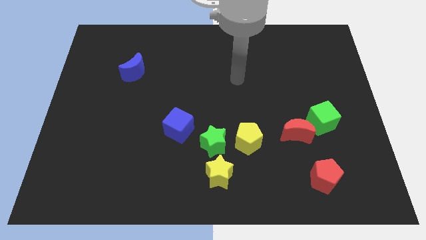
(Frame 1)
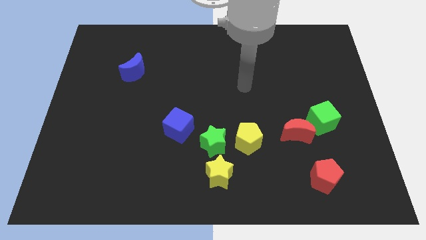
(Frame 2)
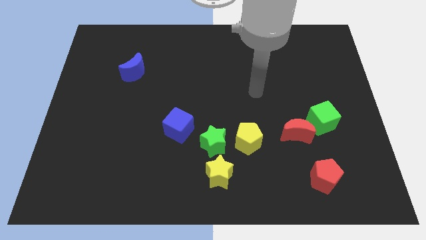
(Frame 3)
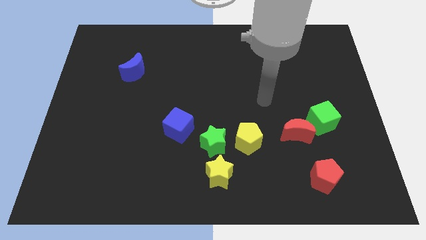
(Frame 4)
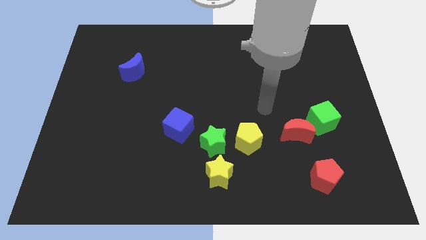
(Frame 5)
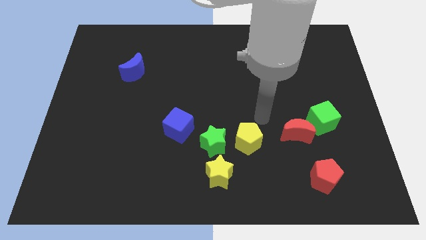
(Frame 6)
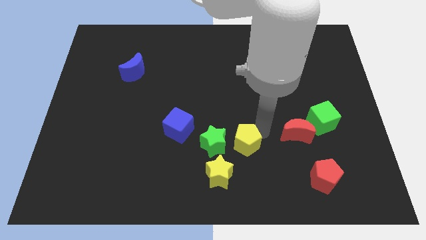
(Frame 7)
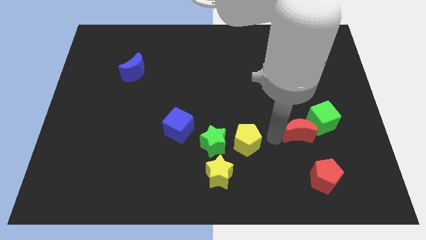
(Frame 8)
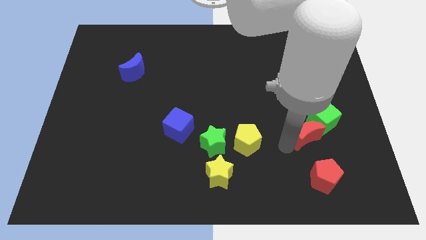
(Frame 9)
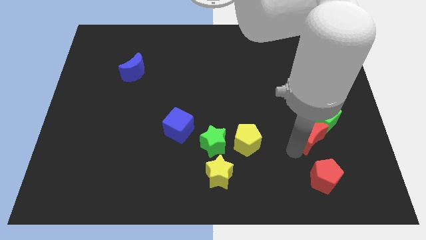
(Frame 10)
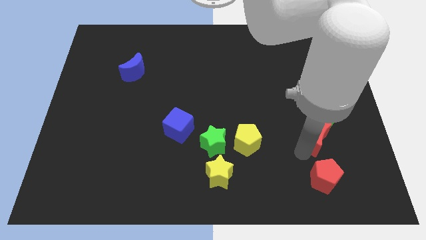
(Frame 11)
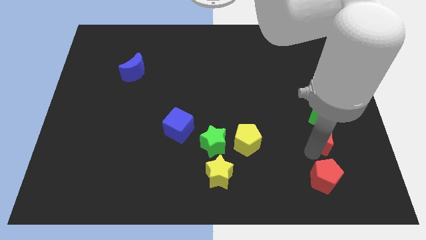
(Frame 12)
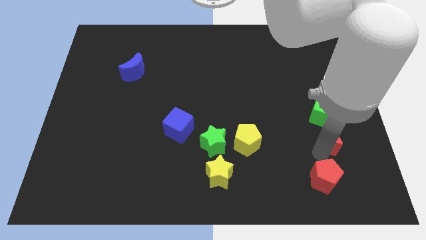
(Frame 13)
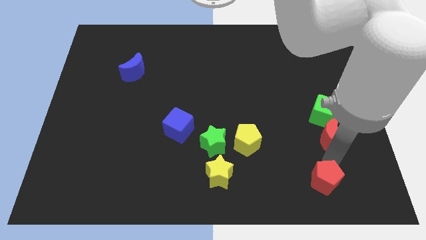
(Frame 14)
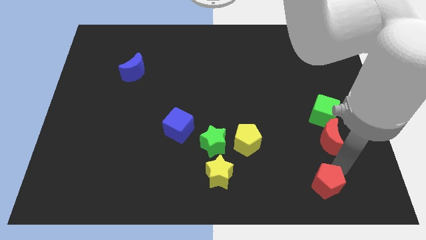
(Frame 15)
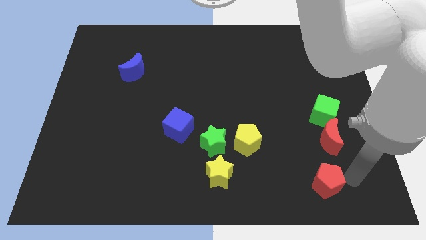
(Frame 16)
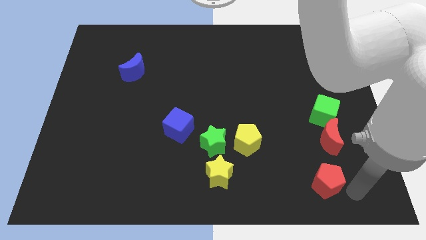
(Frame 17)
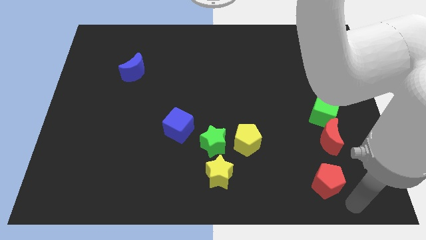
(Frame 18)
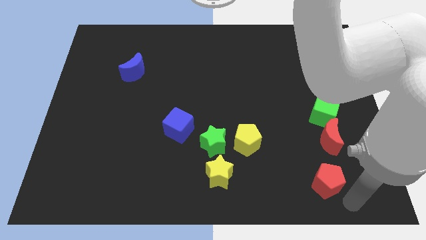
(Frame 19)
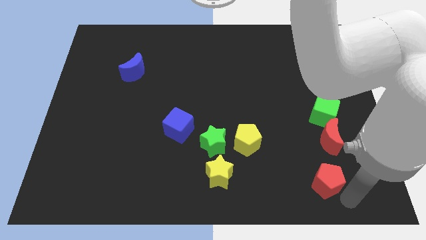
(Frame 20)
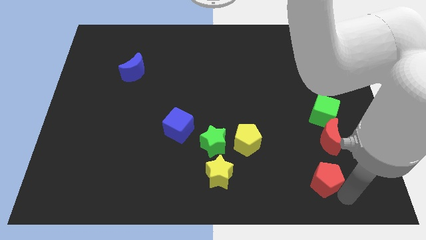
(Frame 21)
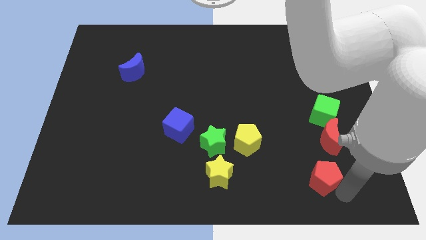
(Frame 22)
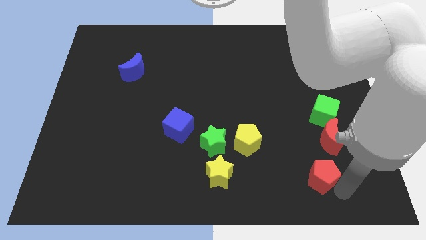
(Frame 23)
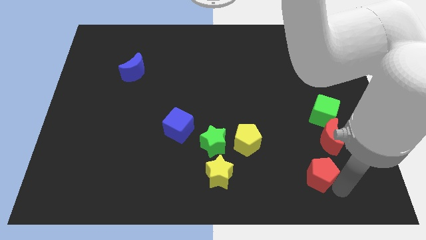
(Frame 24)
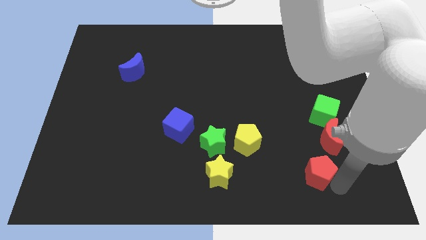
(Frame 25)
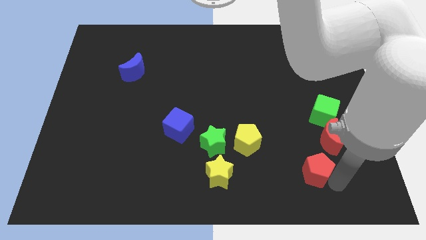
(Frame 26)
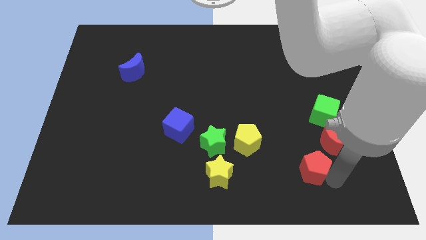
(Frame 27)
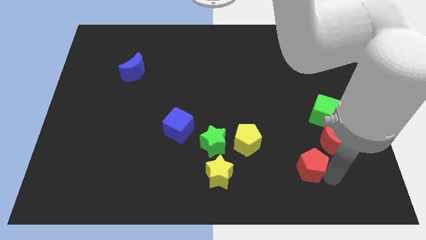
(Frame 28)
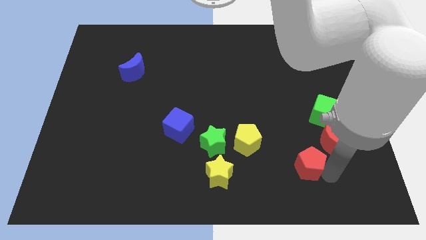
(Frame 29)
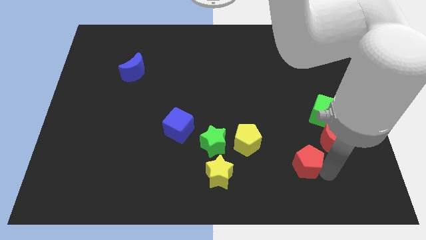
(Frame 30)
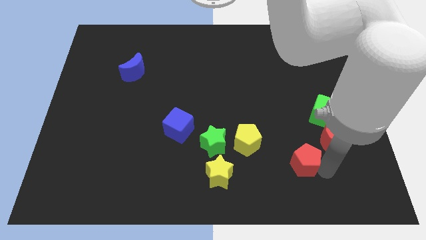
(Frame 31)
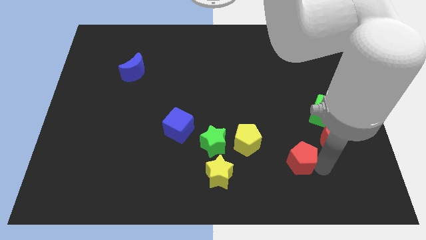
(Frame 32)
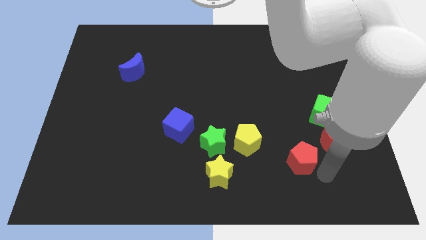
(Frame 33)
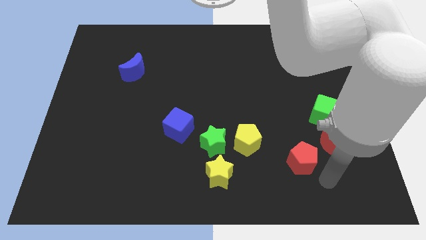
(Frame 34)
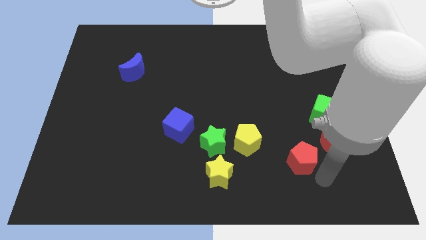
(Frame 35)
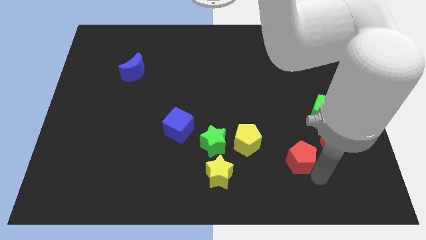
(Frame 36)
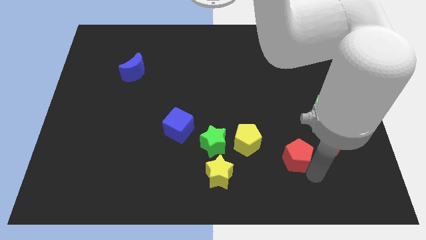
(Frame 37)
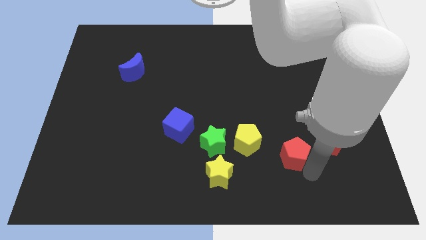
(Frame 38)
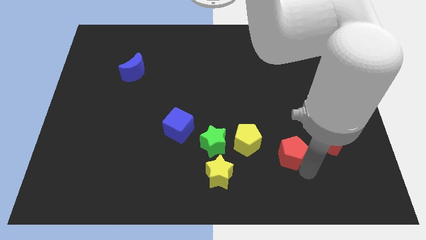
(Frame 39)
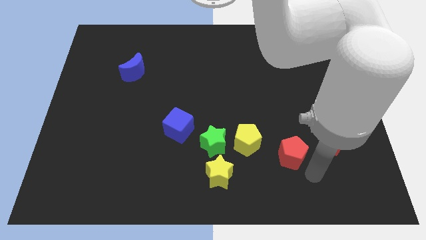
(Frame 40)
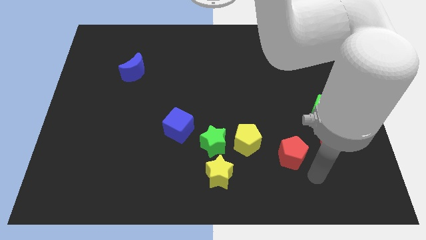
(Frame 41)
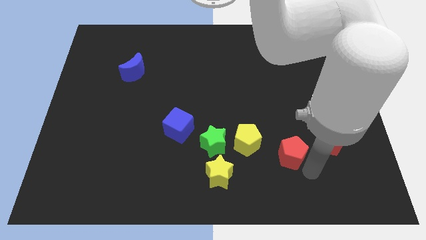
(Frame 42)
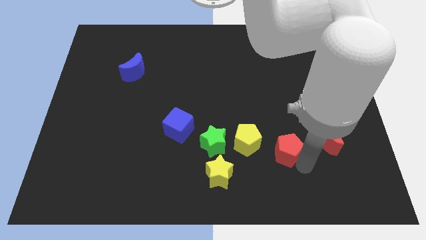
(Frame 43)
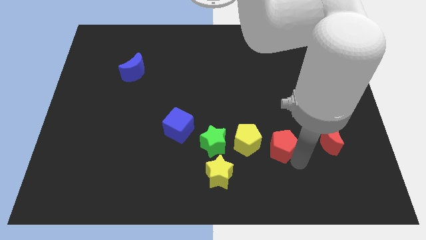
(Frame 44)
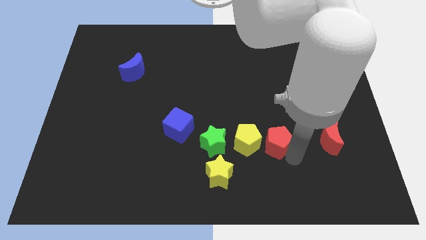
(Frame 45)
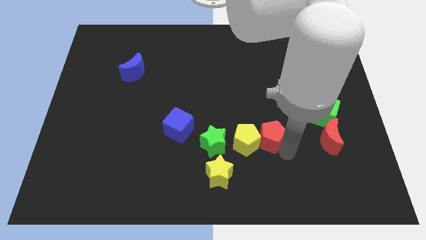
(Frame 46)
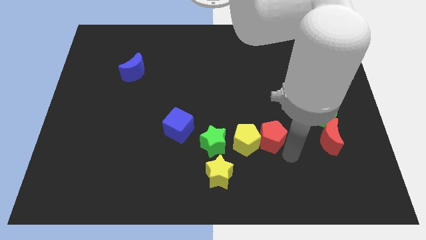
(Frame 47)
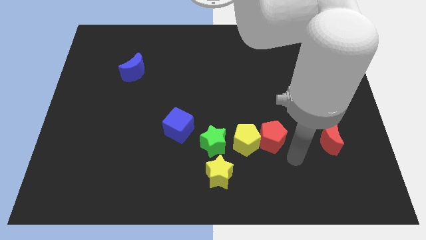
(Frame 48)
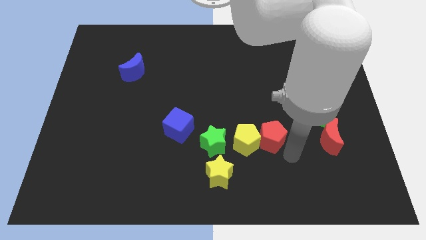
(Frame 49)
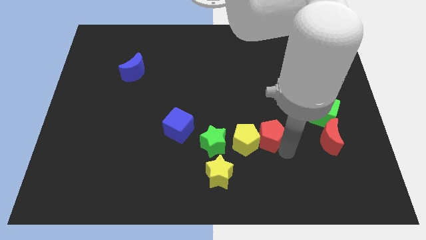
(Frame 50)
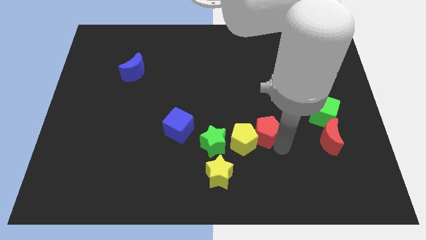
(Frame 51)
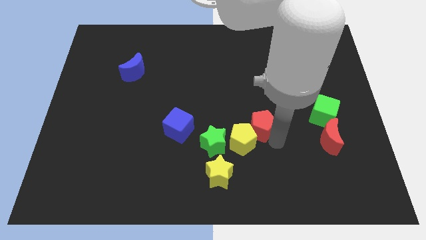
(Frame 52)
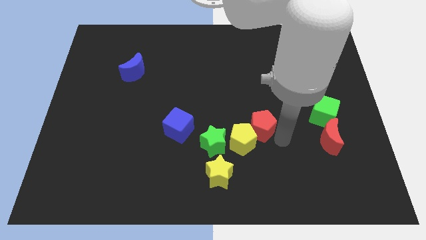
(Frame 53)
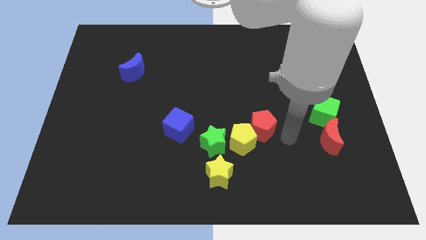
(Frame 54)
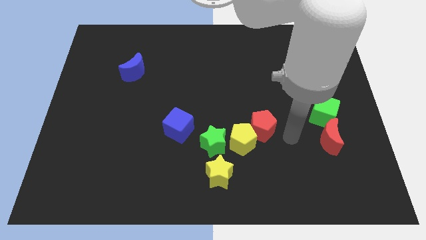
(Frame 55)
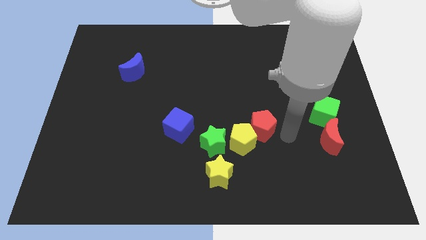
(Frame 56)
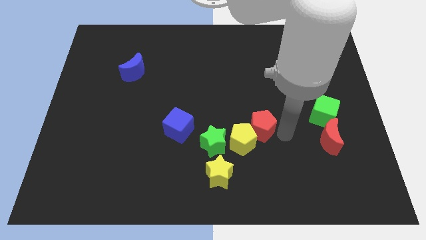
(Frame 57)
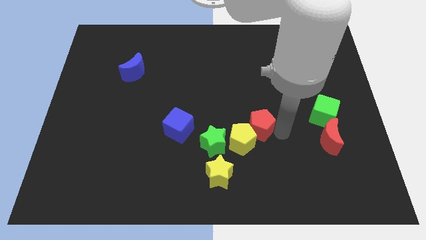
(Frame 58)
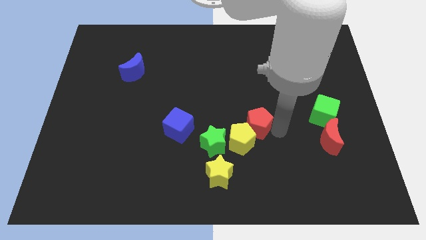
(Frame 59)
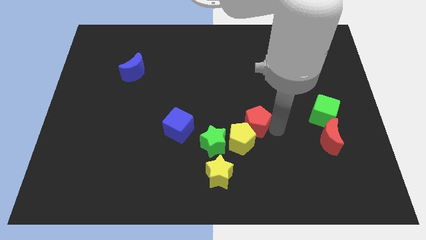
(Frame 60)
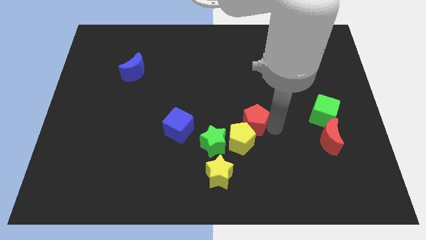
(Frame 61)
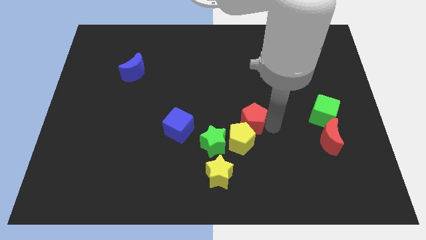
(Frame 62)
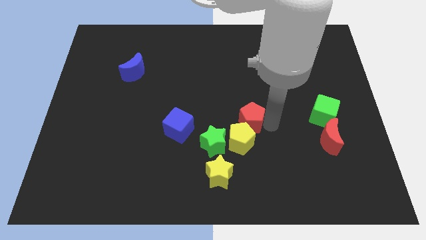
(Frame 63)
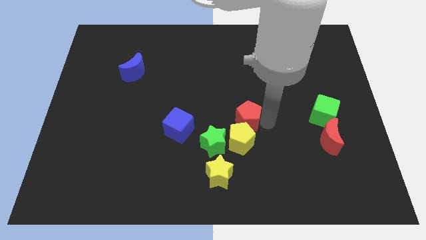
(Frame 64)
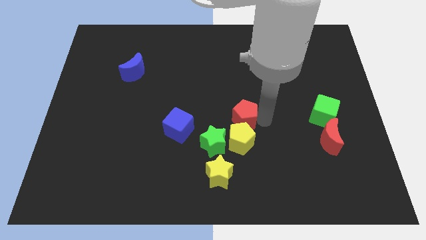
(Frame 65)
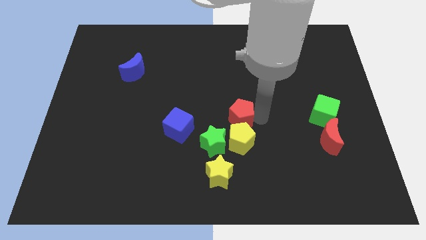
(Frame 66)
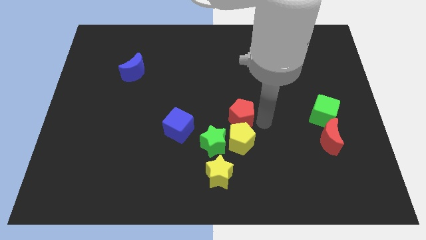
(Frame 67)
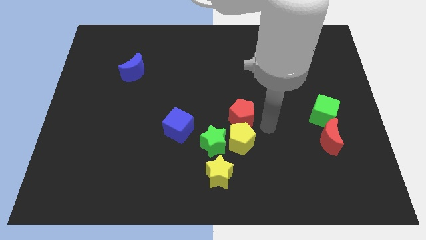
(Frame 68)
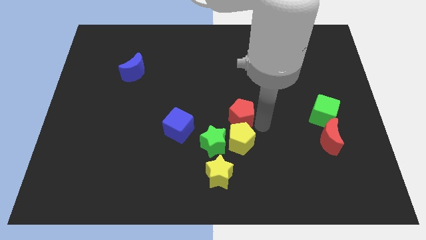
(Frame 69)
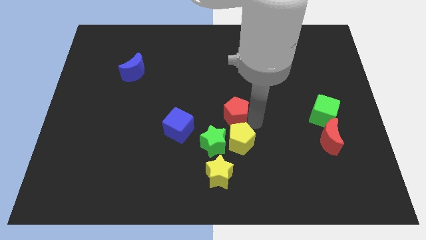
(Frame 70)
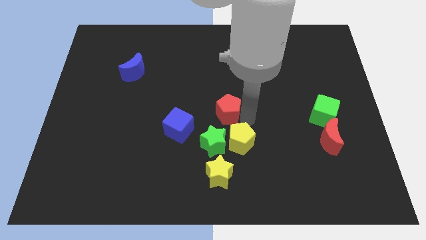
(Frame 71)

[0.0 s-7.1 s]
push the red pentagon to the top of the green star
